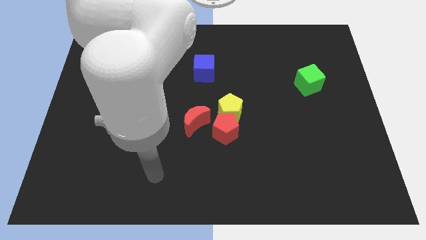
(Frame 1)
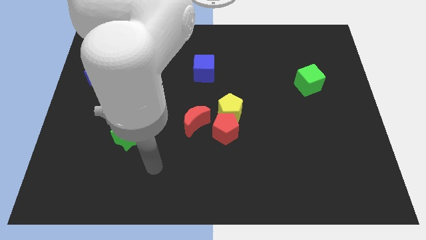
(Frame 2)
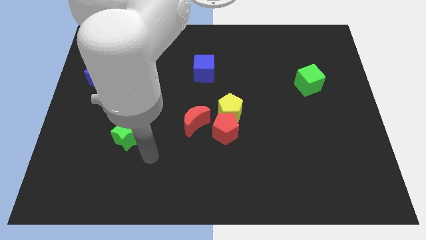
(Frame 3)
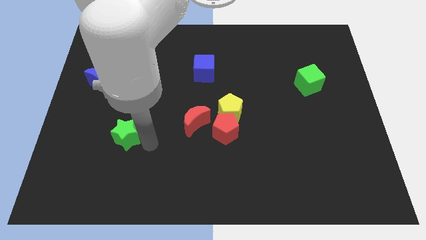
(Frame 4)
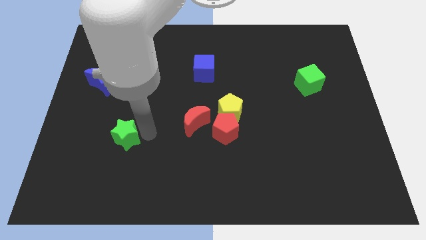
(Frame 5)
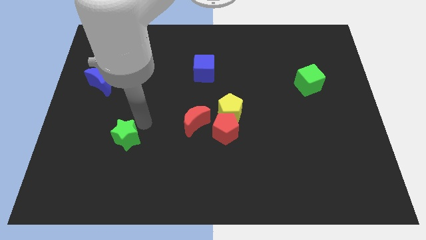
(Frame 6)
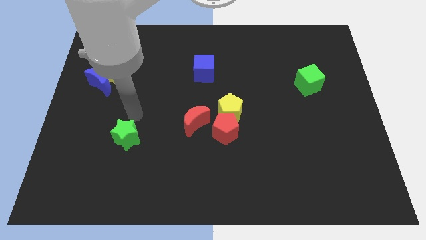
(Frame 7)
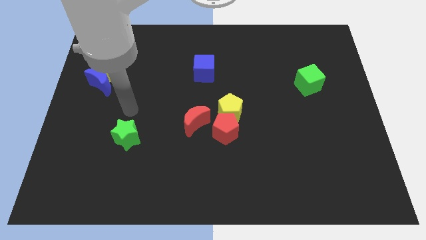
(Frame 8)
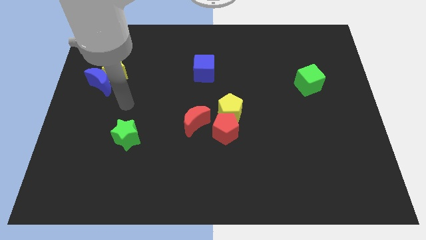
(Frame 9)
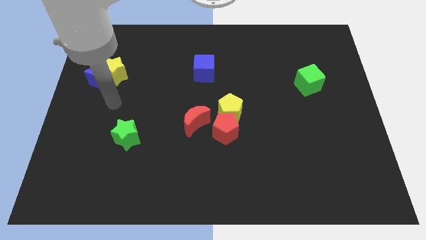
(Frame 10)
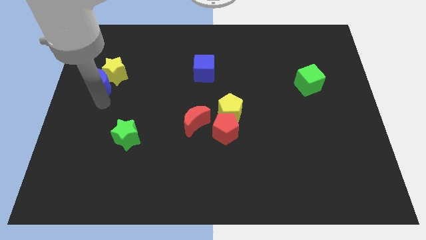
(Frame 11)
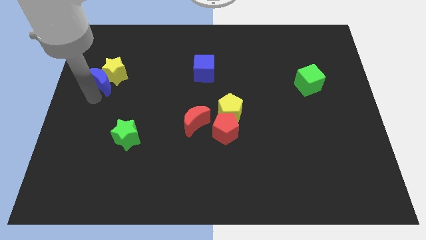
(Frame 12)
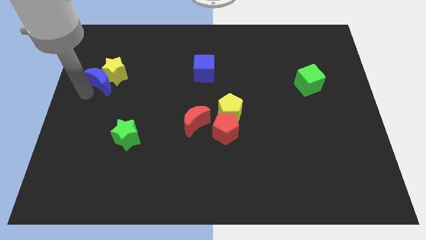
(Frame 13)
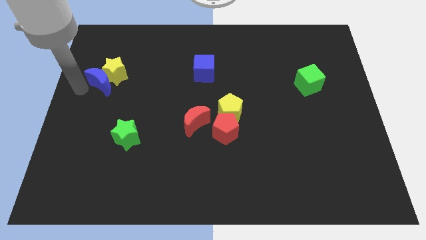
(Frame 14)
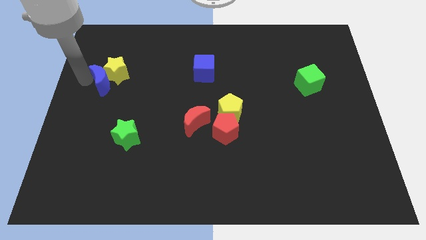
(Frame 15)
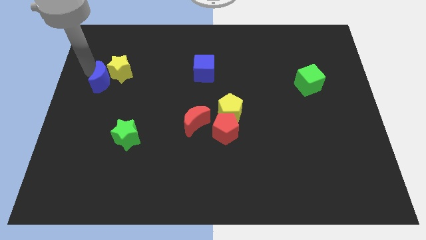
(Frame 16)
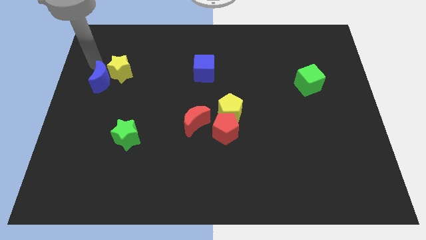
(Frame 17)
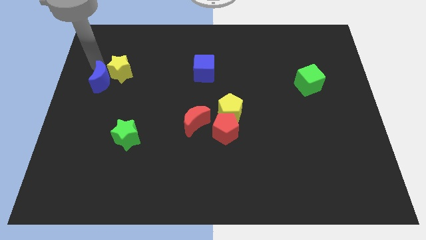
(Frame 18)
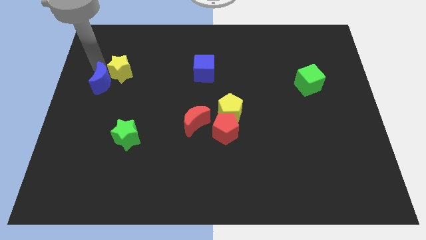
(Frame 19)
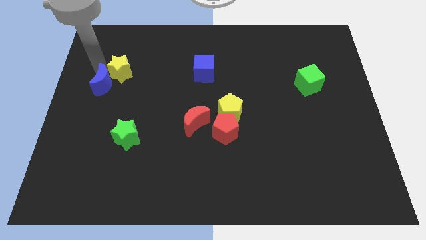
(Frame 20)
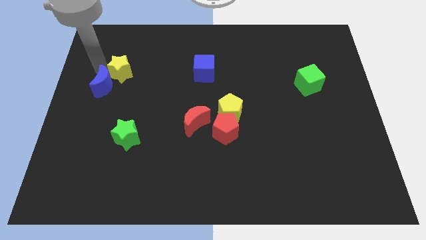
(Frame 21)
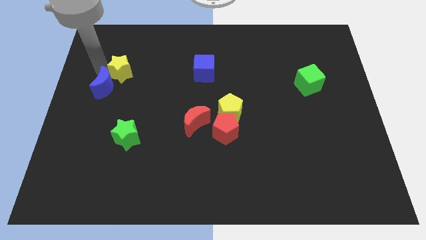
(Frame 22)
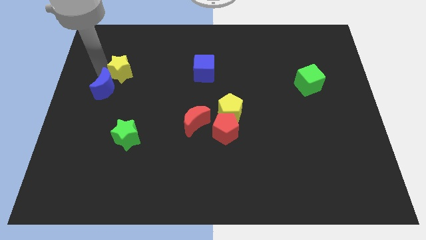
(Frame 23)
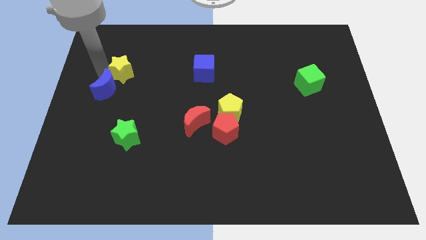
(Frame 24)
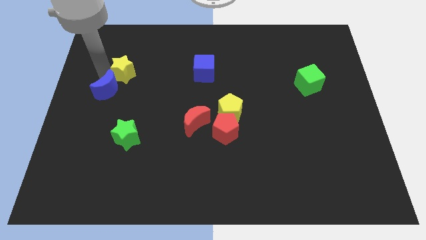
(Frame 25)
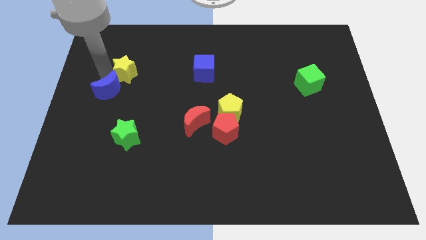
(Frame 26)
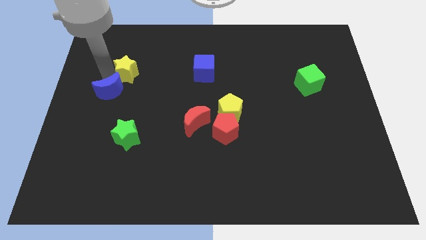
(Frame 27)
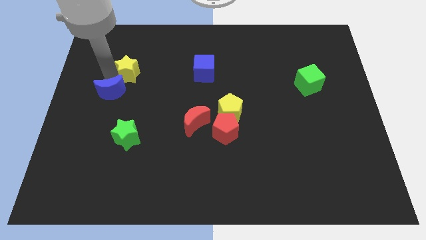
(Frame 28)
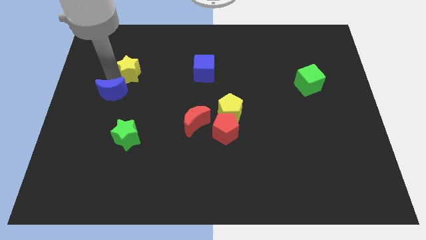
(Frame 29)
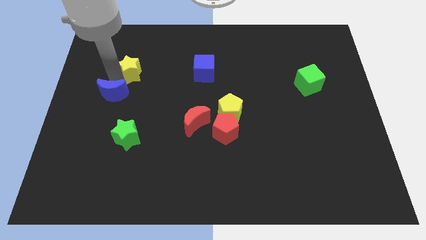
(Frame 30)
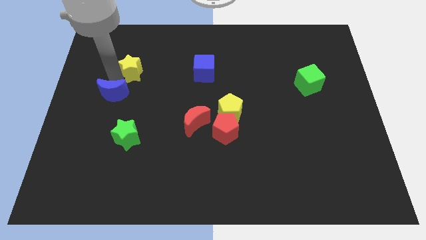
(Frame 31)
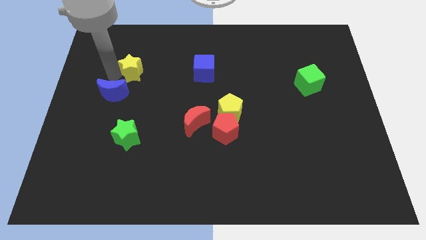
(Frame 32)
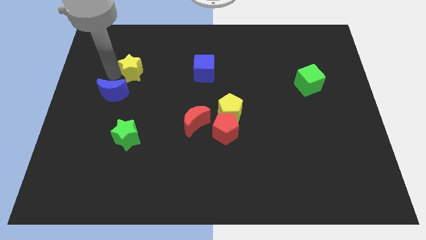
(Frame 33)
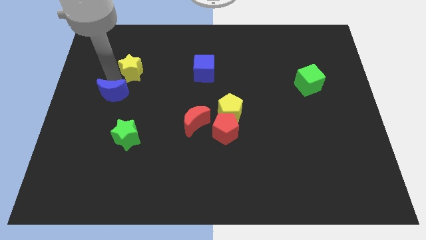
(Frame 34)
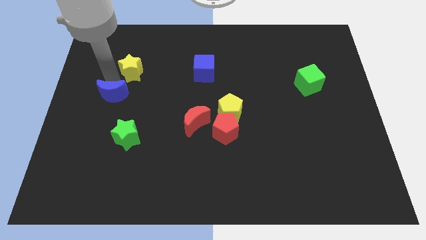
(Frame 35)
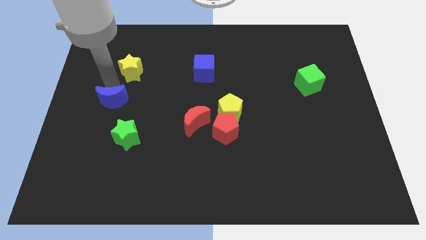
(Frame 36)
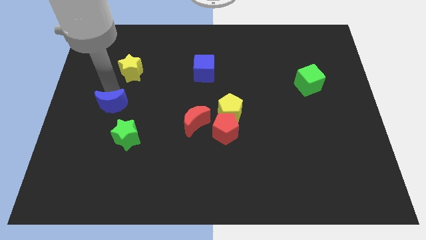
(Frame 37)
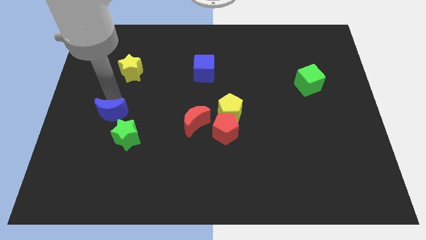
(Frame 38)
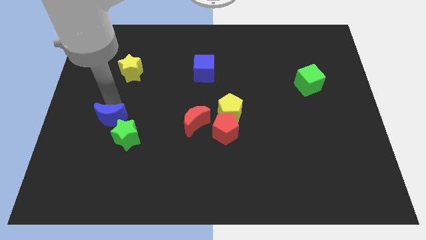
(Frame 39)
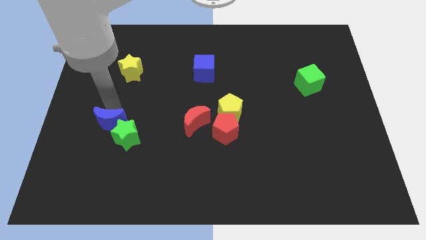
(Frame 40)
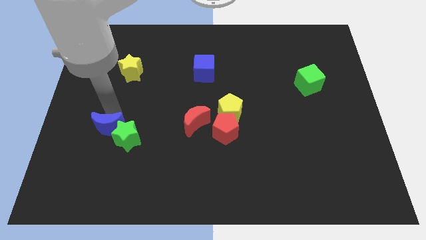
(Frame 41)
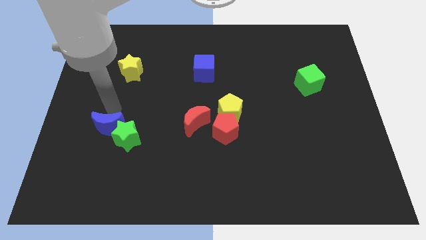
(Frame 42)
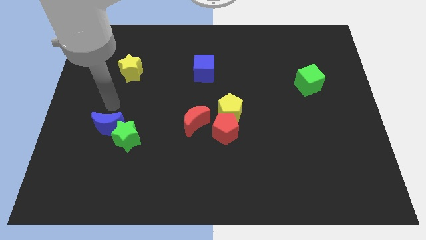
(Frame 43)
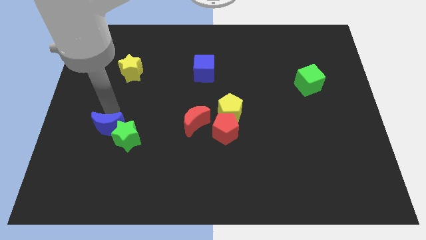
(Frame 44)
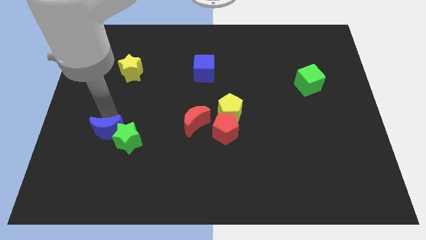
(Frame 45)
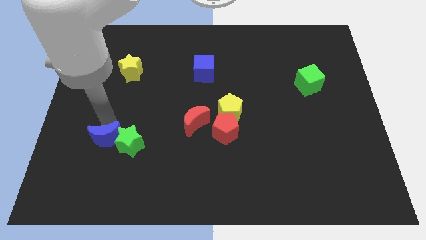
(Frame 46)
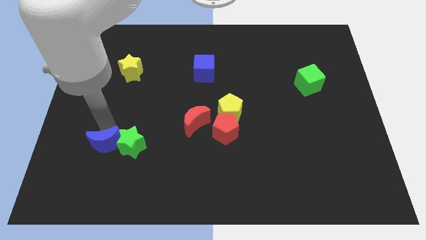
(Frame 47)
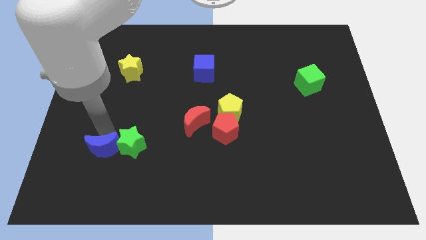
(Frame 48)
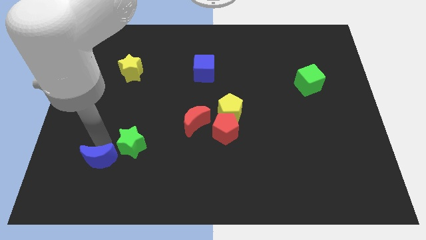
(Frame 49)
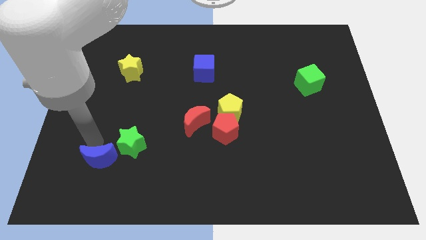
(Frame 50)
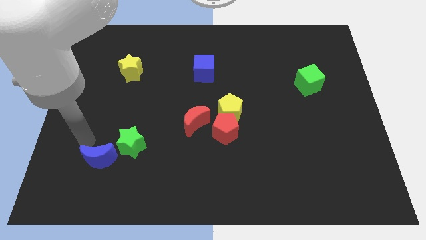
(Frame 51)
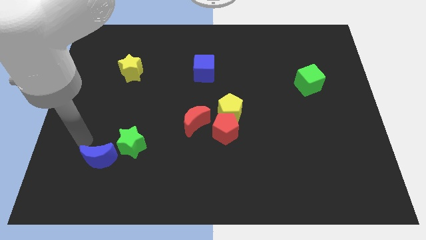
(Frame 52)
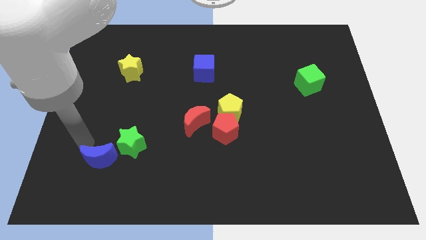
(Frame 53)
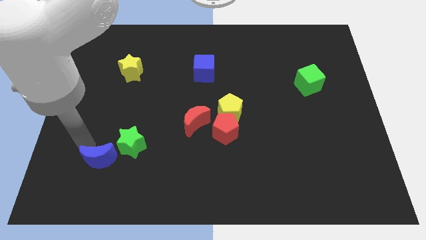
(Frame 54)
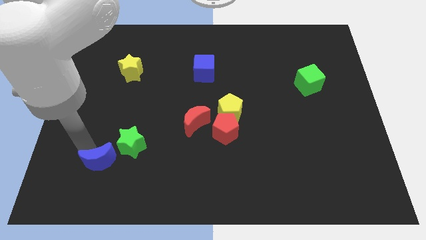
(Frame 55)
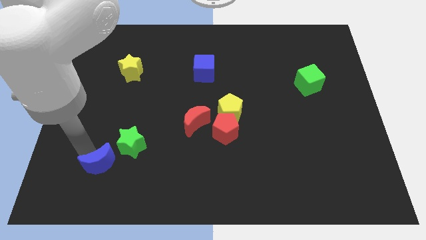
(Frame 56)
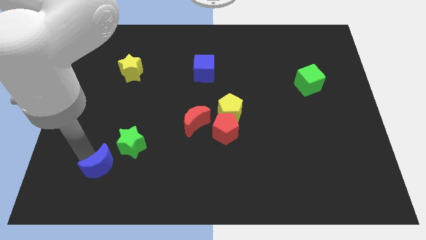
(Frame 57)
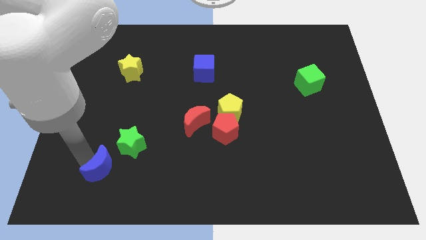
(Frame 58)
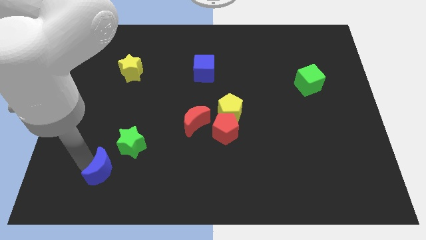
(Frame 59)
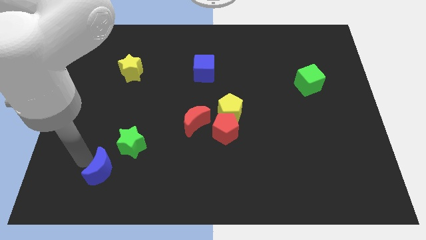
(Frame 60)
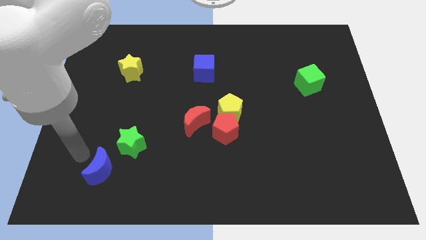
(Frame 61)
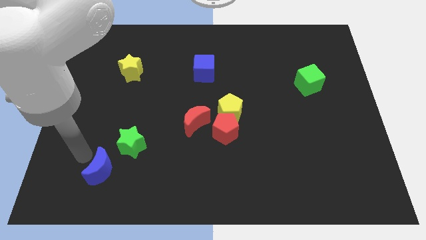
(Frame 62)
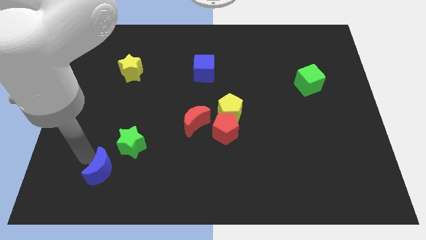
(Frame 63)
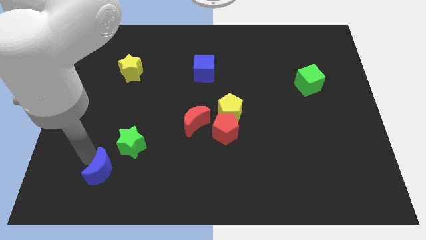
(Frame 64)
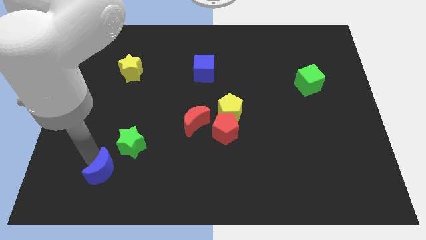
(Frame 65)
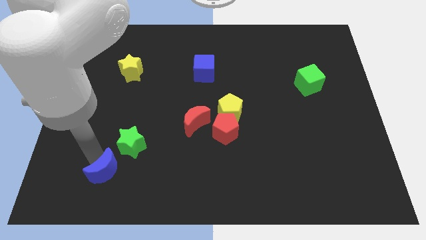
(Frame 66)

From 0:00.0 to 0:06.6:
slide the blue moon below the green star

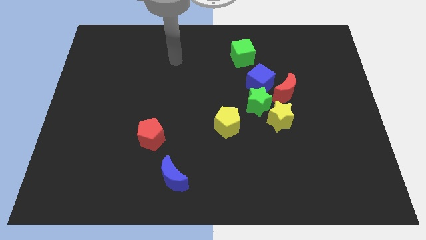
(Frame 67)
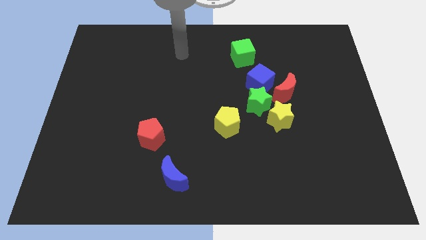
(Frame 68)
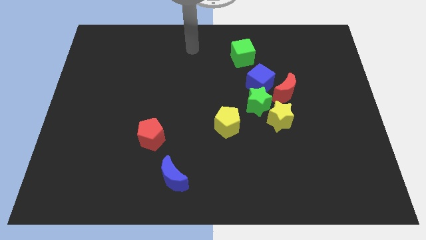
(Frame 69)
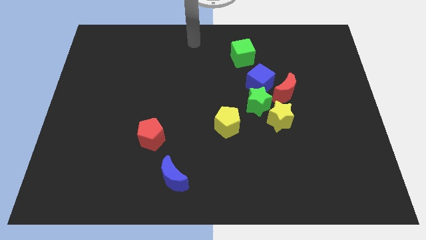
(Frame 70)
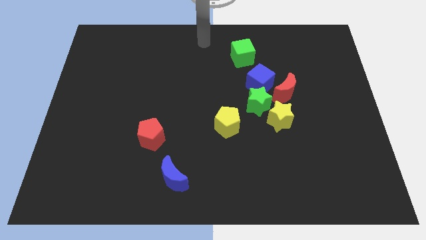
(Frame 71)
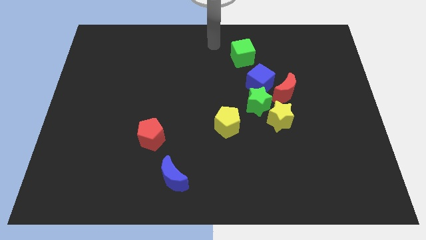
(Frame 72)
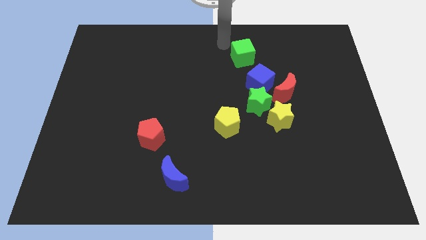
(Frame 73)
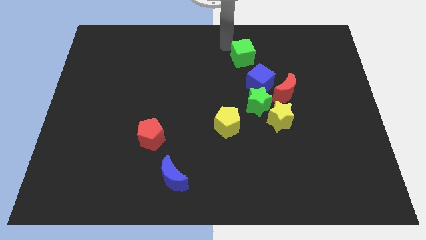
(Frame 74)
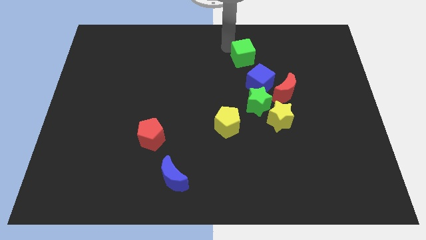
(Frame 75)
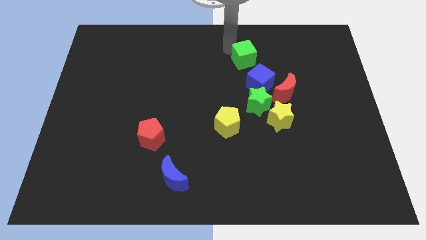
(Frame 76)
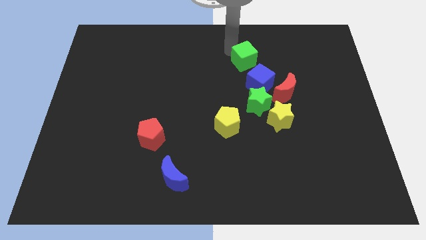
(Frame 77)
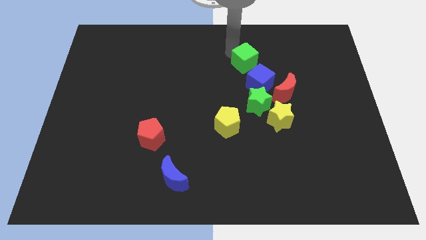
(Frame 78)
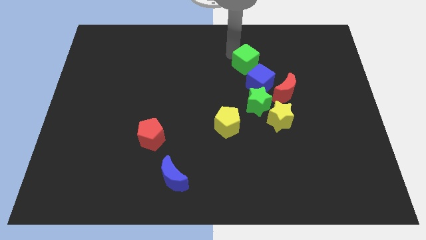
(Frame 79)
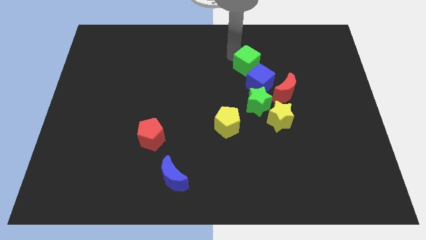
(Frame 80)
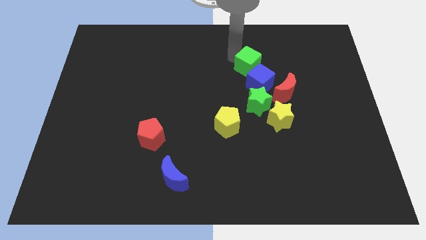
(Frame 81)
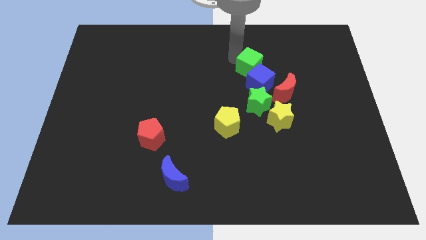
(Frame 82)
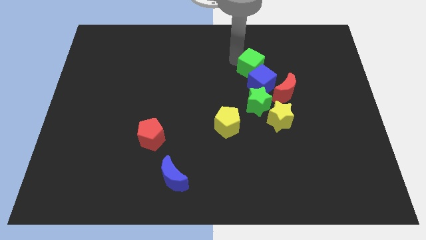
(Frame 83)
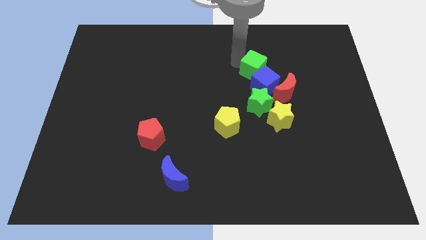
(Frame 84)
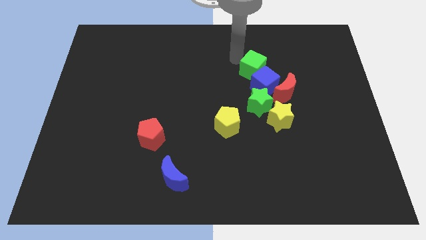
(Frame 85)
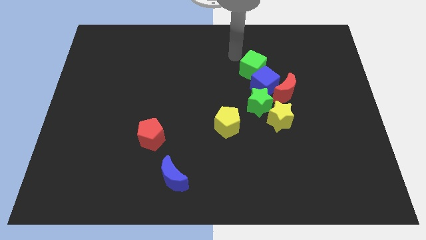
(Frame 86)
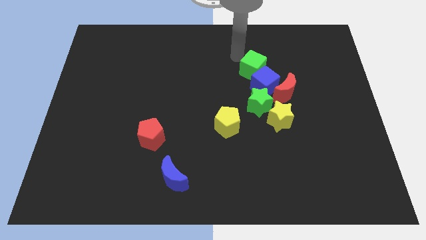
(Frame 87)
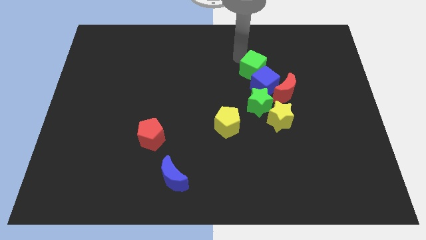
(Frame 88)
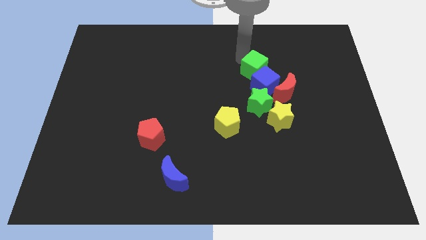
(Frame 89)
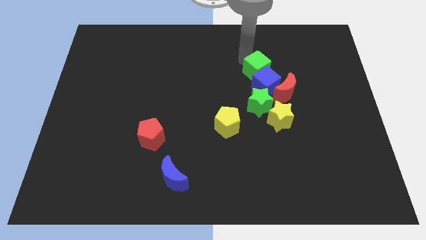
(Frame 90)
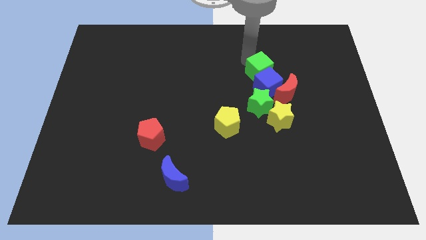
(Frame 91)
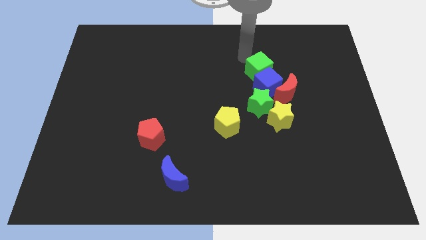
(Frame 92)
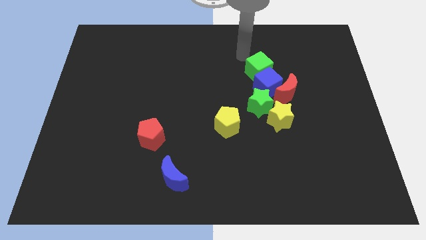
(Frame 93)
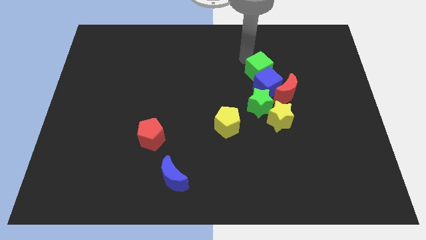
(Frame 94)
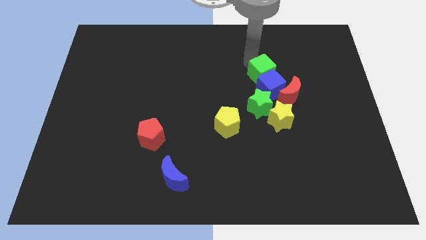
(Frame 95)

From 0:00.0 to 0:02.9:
put the green cube above the yellow star
